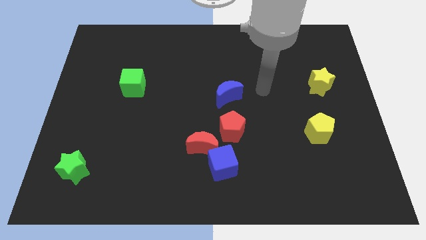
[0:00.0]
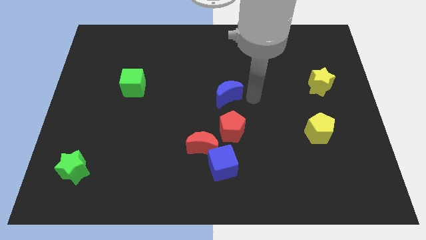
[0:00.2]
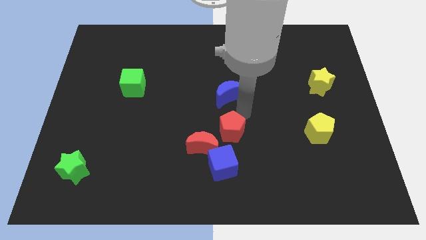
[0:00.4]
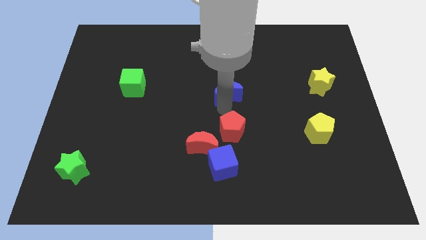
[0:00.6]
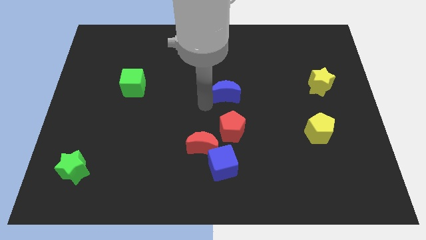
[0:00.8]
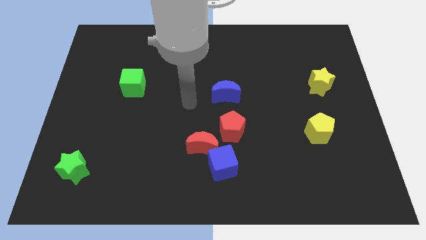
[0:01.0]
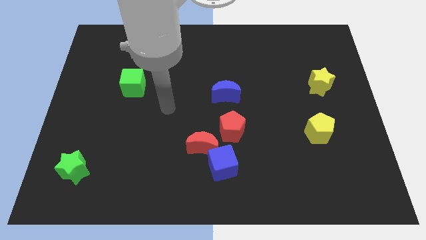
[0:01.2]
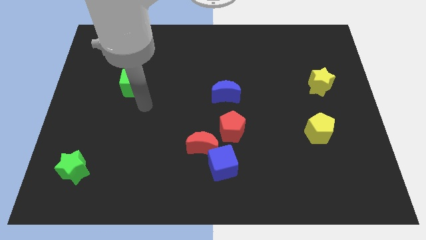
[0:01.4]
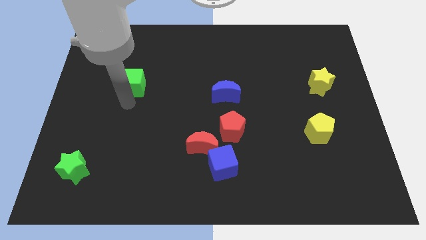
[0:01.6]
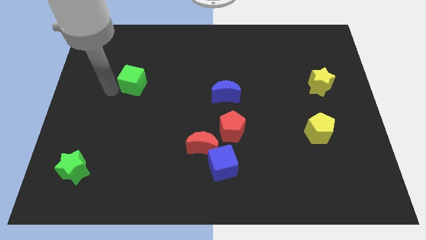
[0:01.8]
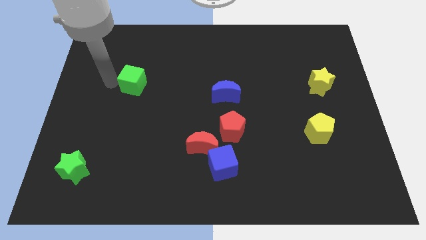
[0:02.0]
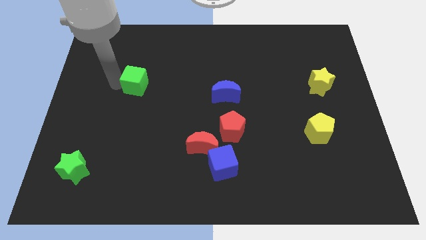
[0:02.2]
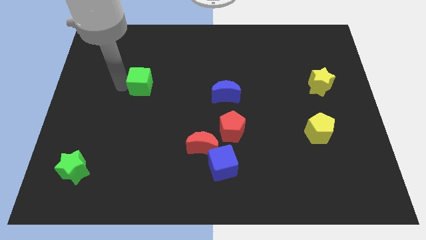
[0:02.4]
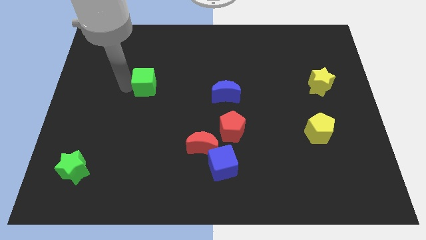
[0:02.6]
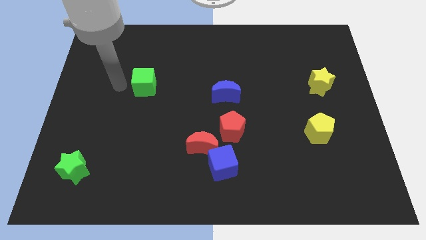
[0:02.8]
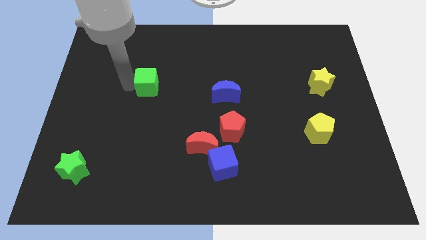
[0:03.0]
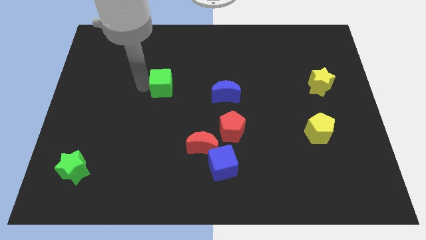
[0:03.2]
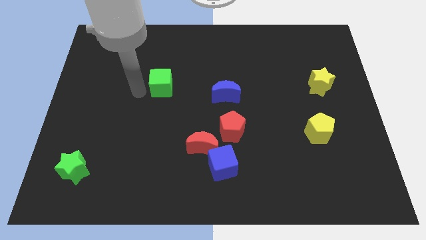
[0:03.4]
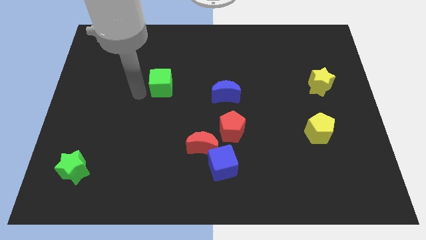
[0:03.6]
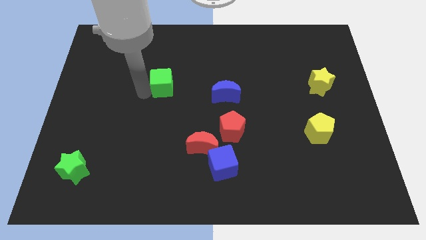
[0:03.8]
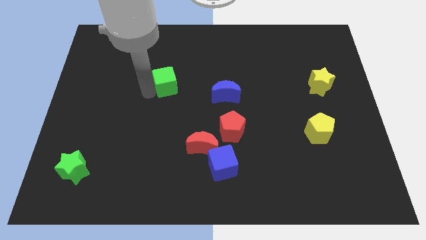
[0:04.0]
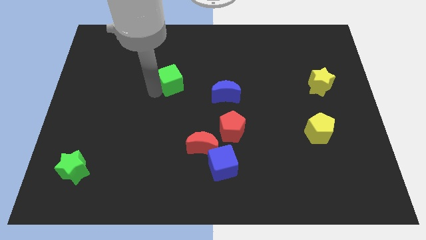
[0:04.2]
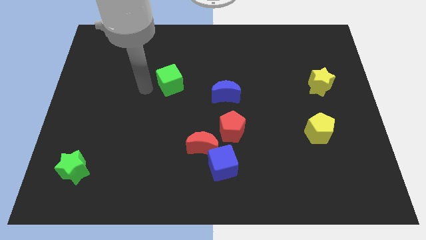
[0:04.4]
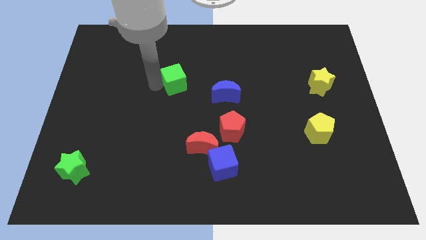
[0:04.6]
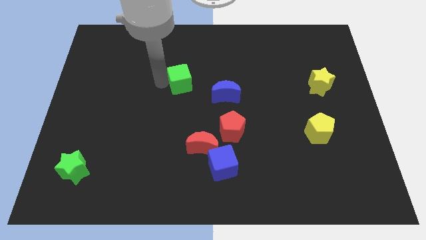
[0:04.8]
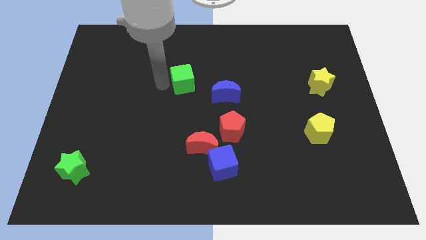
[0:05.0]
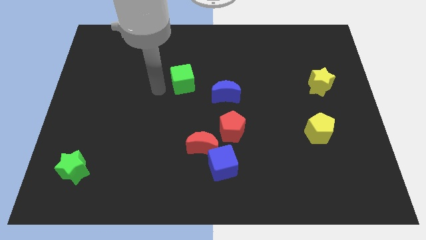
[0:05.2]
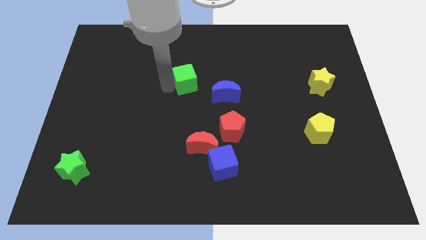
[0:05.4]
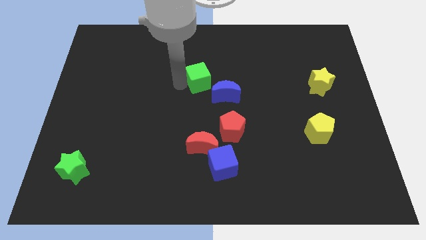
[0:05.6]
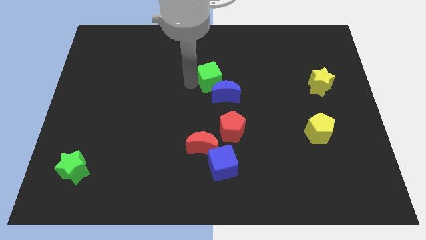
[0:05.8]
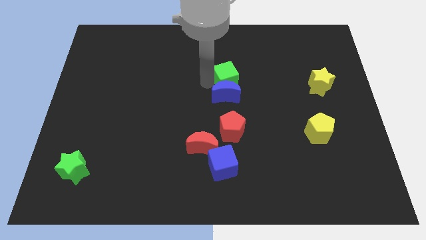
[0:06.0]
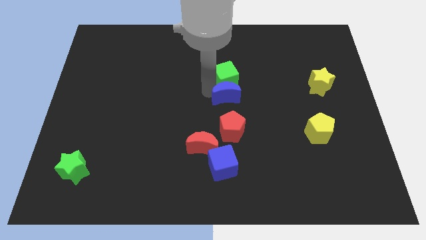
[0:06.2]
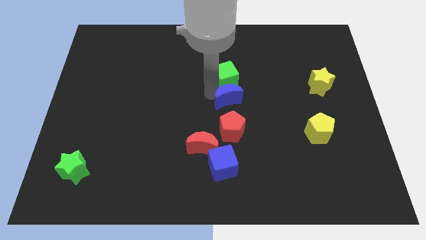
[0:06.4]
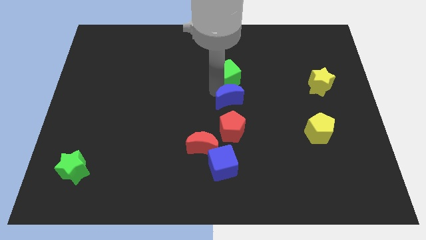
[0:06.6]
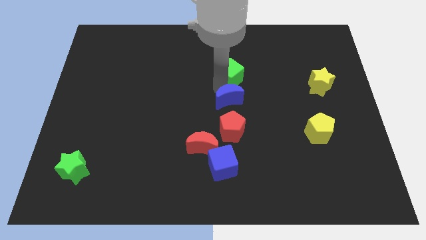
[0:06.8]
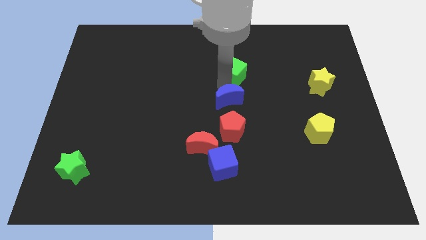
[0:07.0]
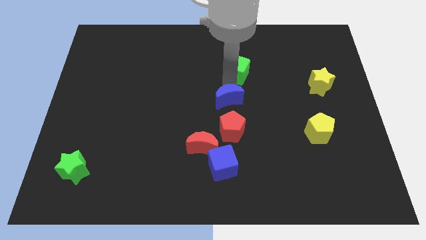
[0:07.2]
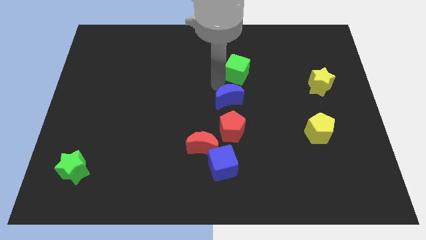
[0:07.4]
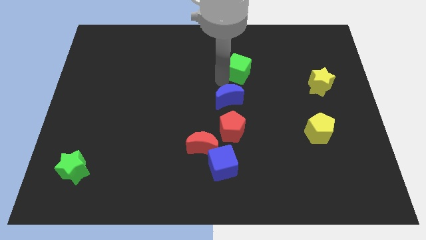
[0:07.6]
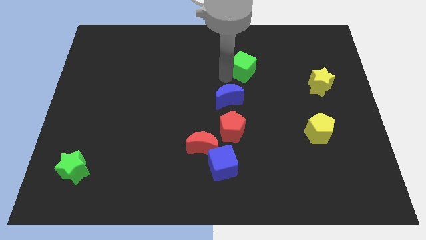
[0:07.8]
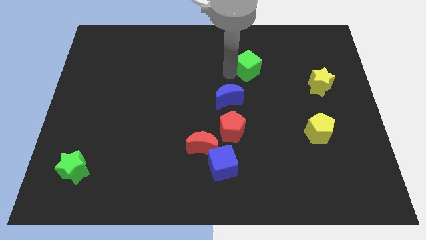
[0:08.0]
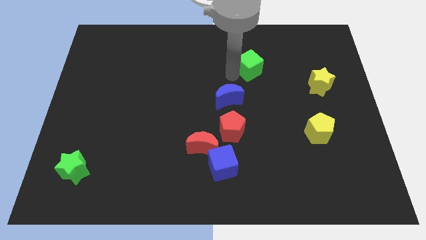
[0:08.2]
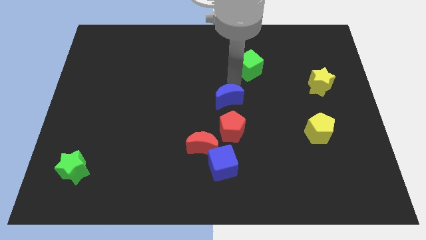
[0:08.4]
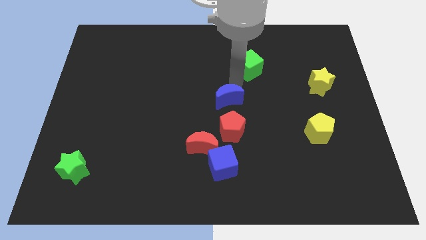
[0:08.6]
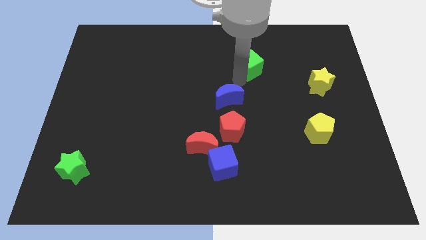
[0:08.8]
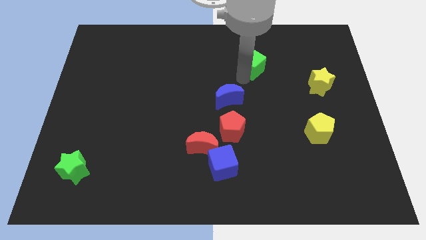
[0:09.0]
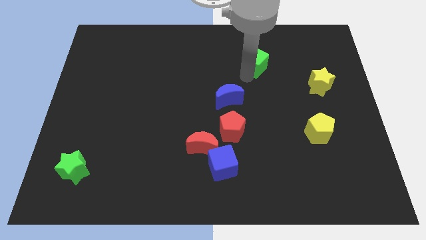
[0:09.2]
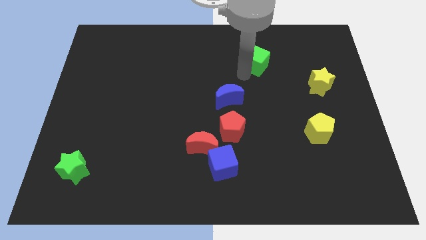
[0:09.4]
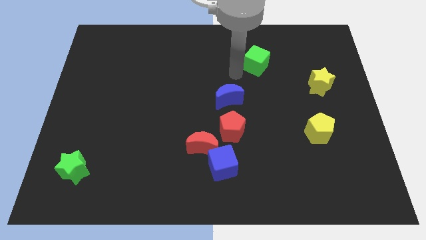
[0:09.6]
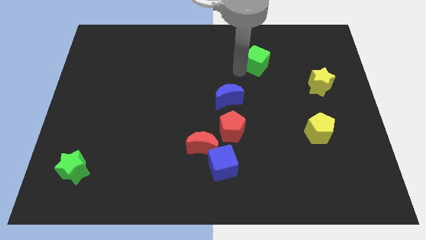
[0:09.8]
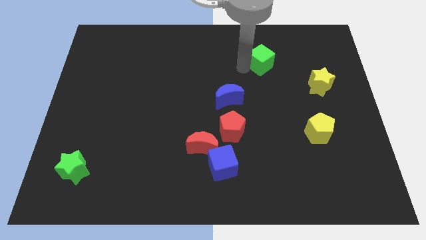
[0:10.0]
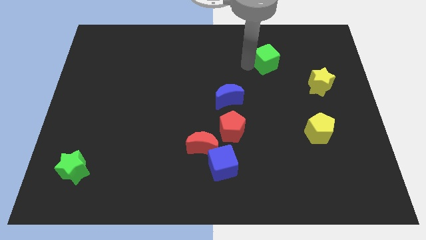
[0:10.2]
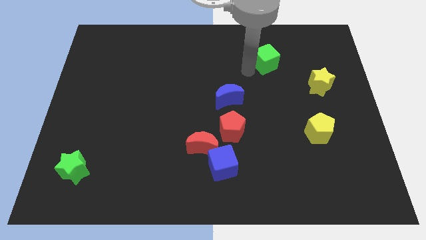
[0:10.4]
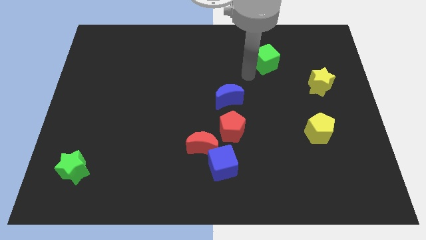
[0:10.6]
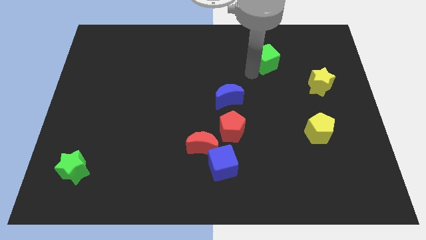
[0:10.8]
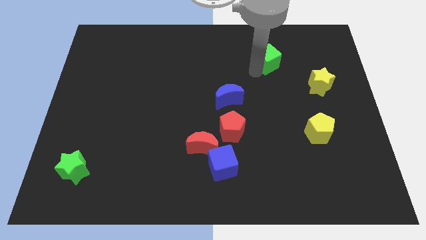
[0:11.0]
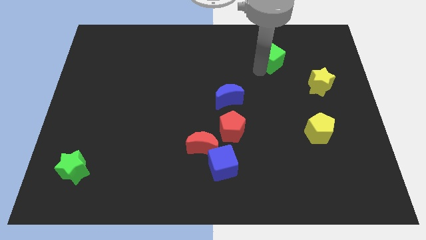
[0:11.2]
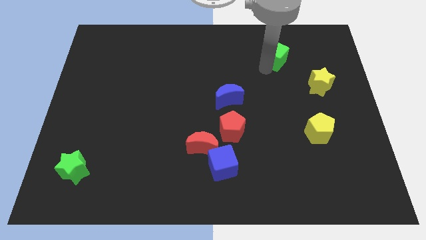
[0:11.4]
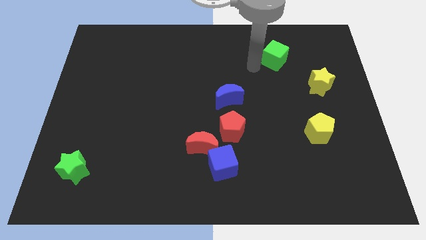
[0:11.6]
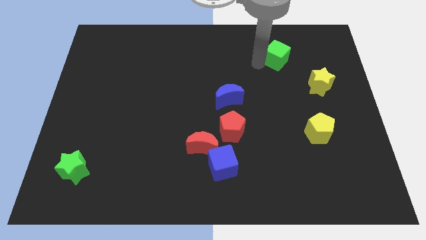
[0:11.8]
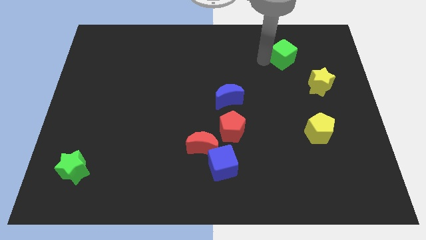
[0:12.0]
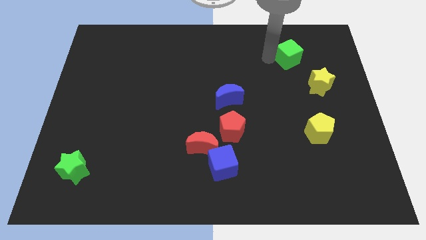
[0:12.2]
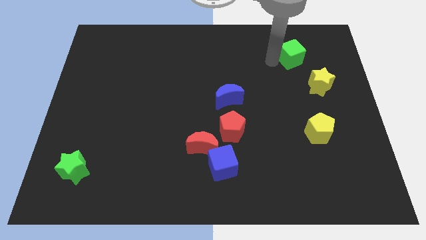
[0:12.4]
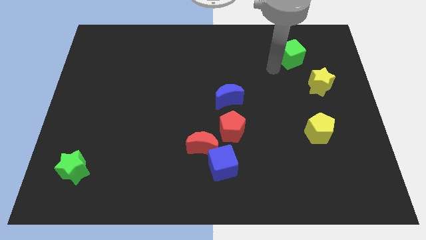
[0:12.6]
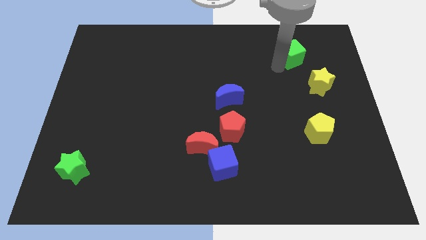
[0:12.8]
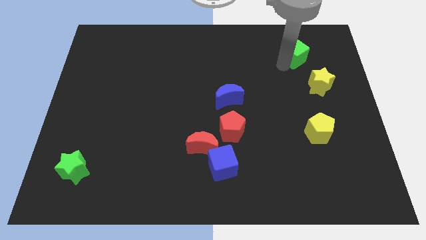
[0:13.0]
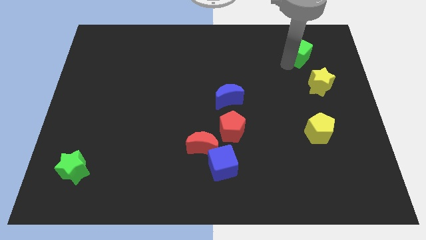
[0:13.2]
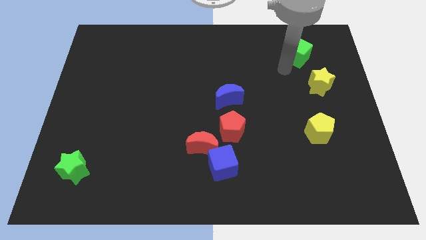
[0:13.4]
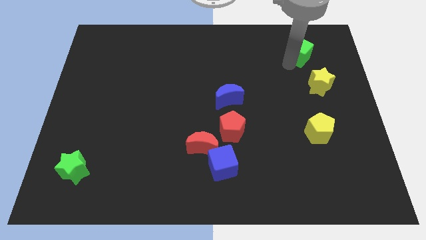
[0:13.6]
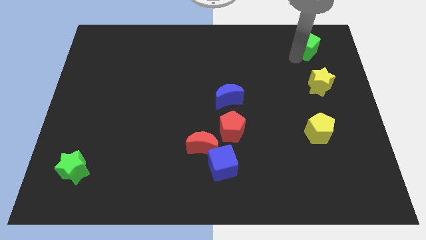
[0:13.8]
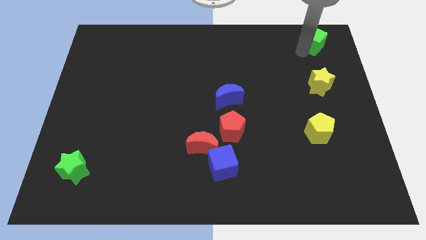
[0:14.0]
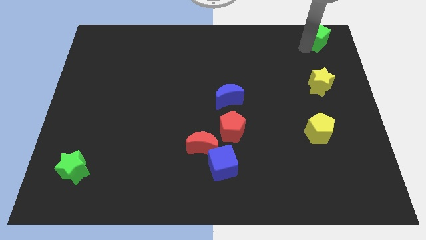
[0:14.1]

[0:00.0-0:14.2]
push the green cube to the upper right corner

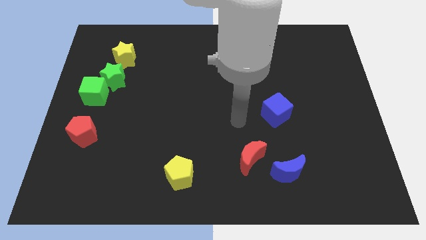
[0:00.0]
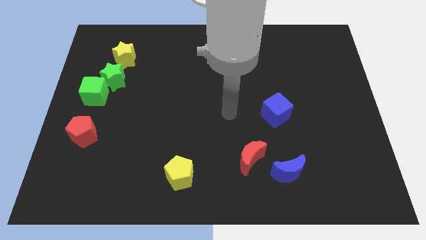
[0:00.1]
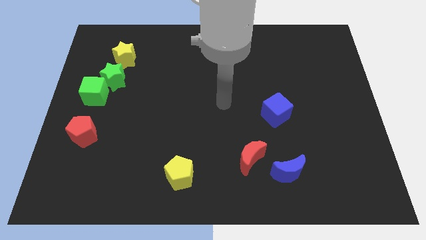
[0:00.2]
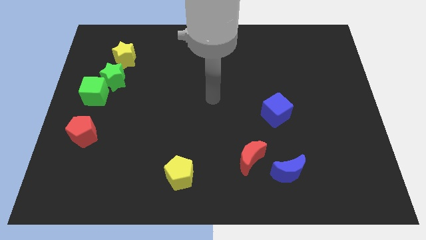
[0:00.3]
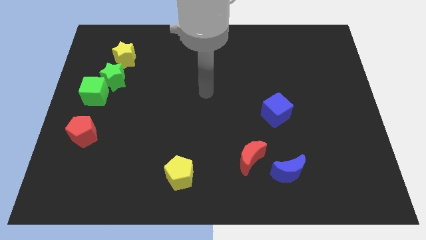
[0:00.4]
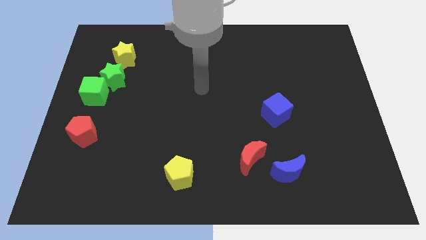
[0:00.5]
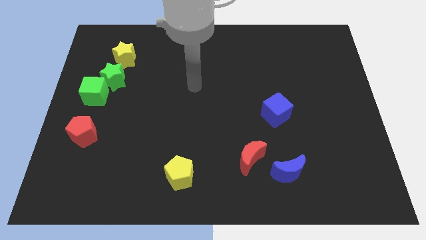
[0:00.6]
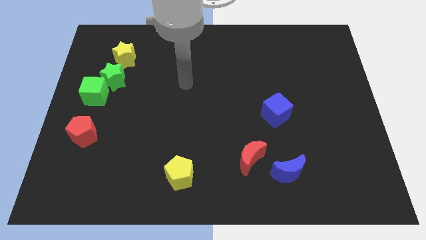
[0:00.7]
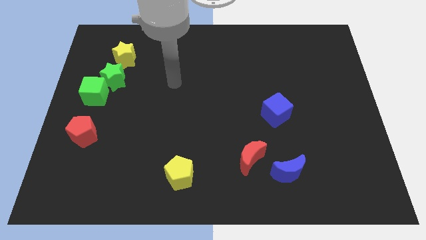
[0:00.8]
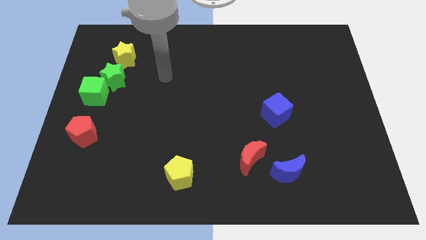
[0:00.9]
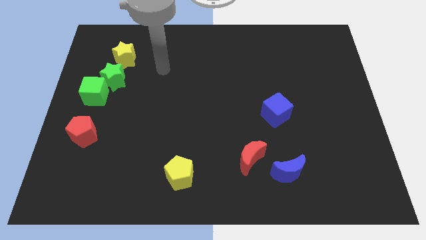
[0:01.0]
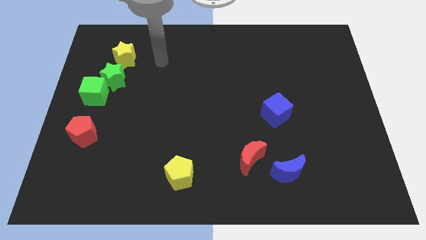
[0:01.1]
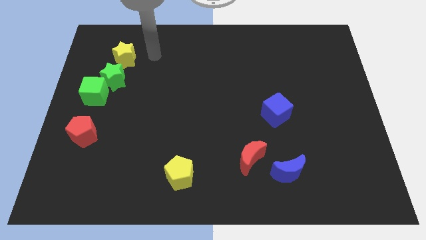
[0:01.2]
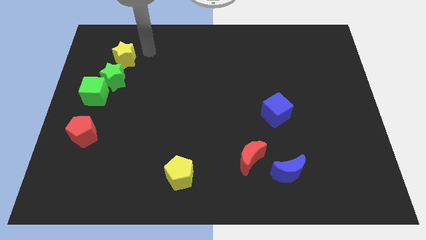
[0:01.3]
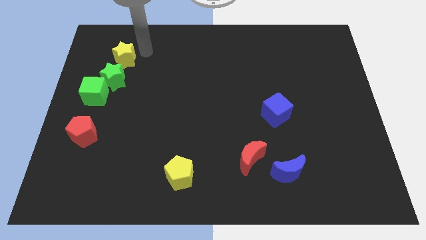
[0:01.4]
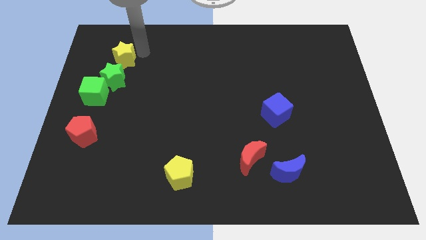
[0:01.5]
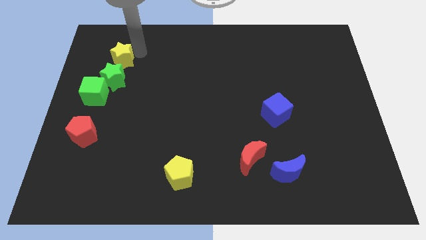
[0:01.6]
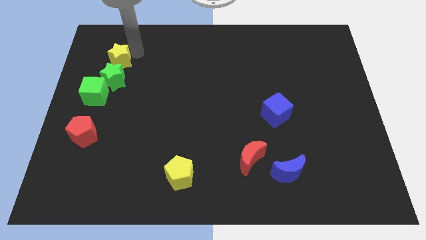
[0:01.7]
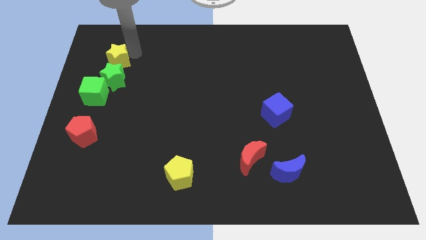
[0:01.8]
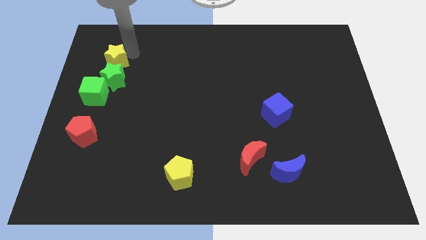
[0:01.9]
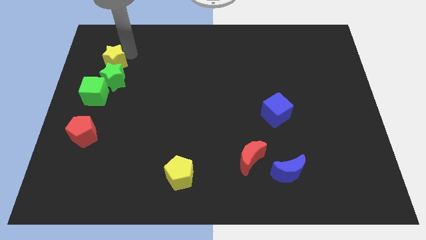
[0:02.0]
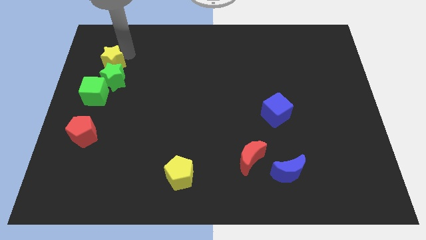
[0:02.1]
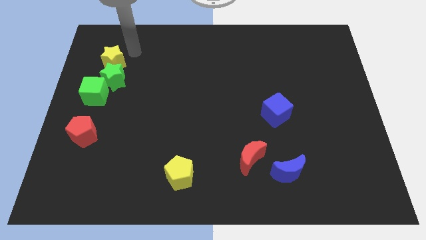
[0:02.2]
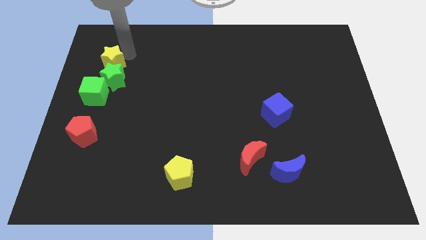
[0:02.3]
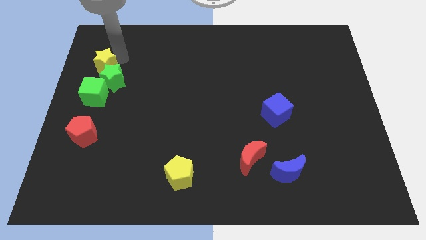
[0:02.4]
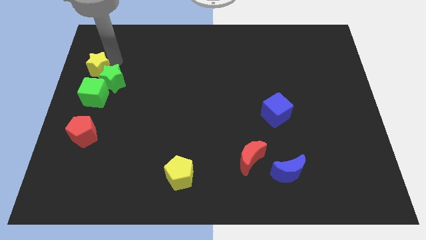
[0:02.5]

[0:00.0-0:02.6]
move the yellow star to the left side of the board
